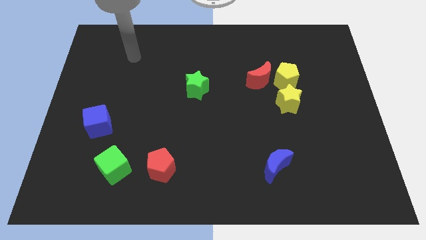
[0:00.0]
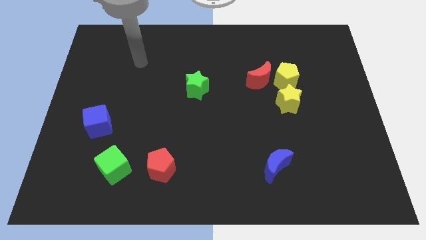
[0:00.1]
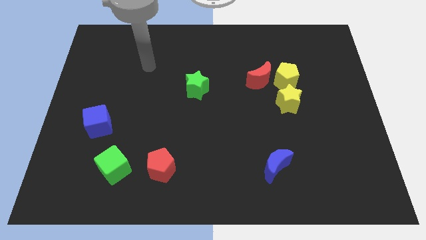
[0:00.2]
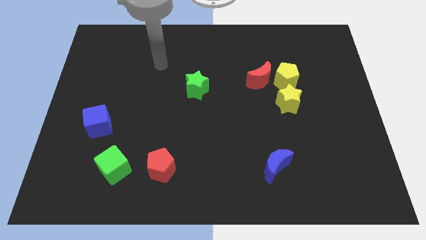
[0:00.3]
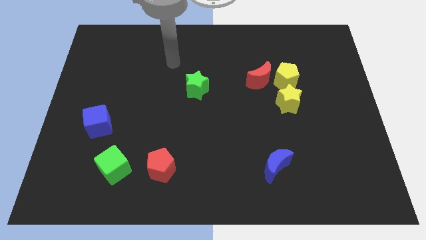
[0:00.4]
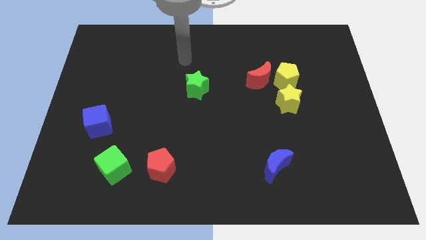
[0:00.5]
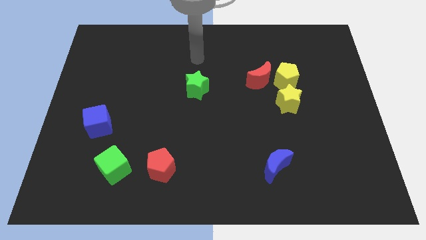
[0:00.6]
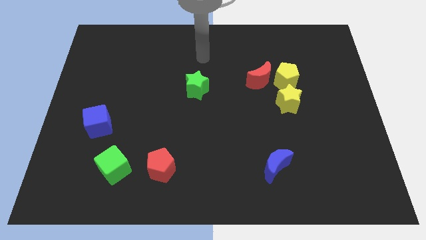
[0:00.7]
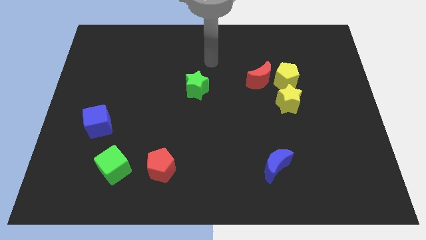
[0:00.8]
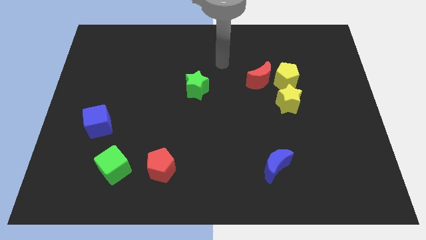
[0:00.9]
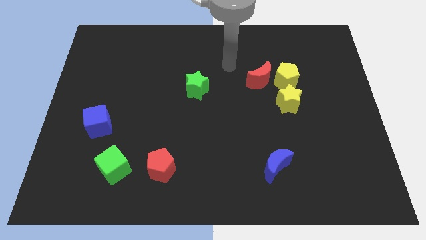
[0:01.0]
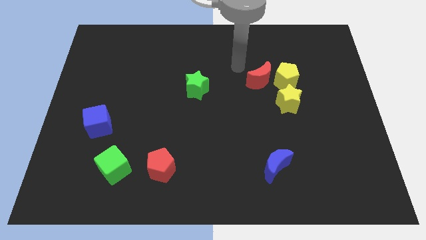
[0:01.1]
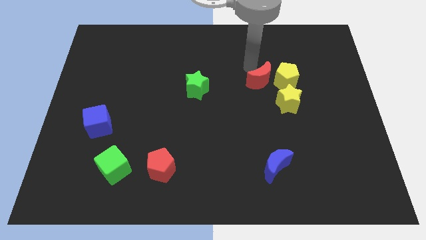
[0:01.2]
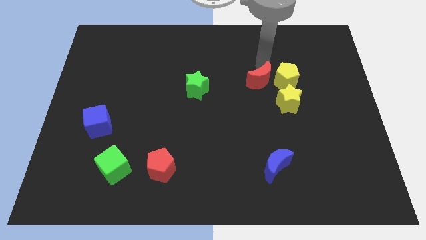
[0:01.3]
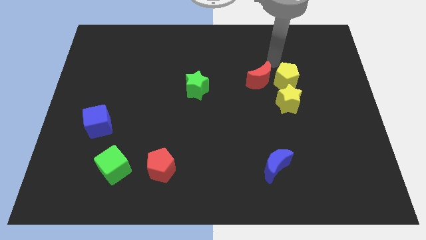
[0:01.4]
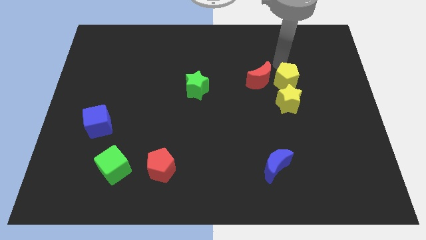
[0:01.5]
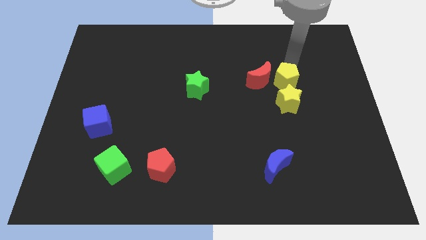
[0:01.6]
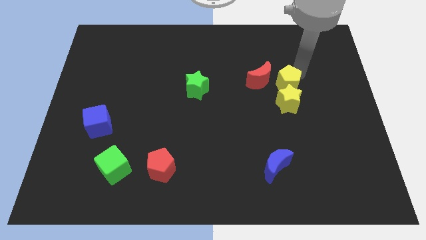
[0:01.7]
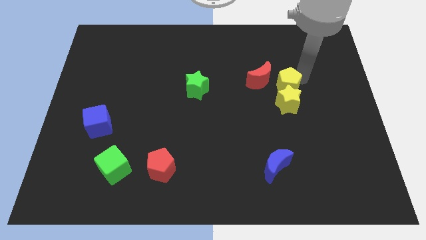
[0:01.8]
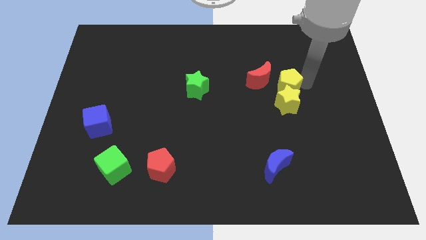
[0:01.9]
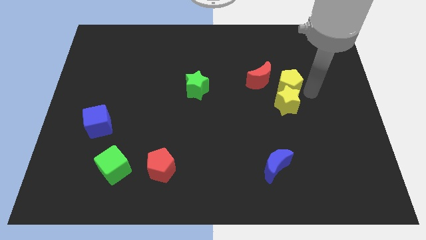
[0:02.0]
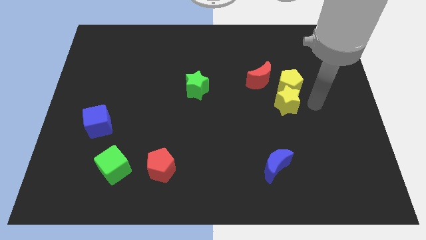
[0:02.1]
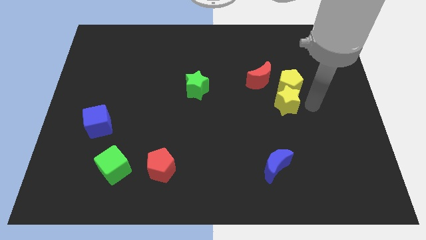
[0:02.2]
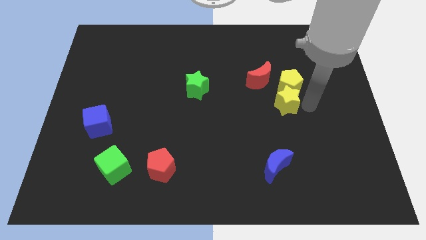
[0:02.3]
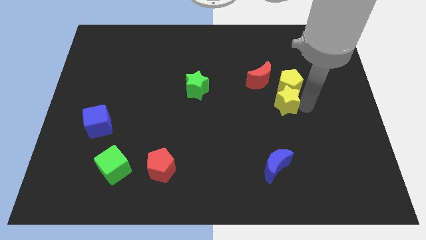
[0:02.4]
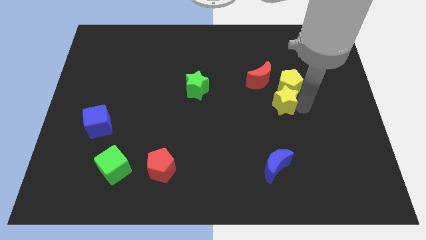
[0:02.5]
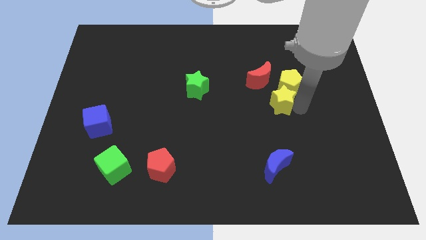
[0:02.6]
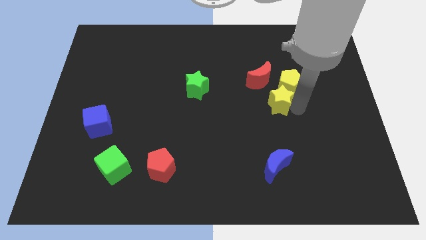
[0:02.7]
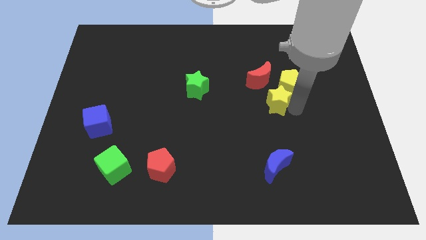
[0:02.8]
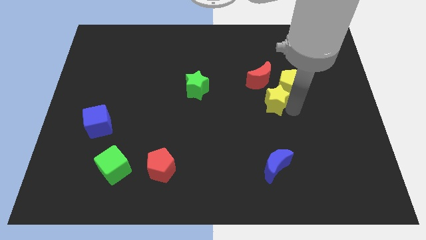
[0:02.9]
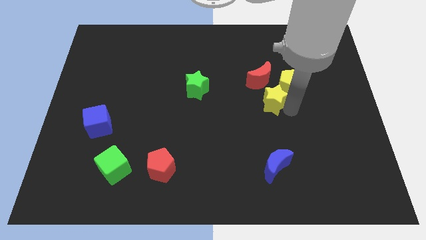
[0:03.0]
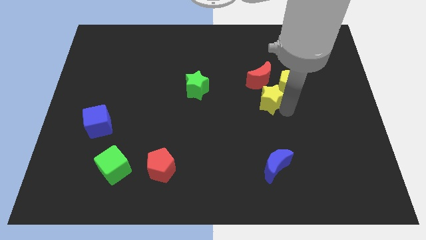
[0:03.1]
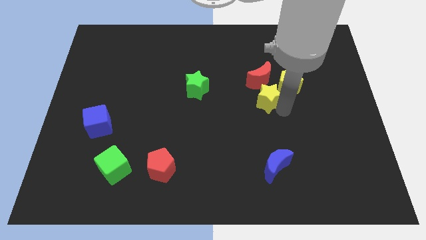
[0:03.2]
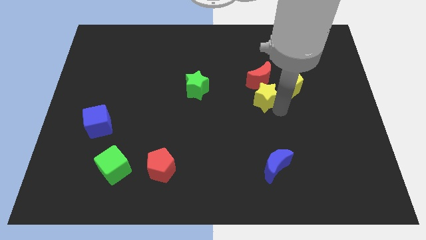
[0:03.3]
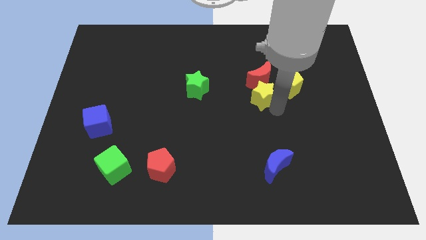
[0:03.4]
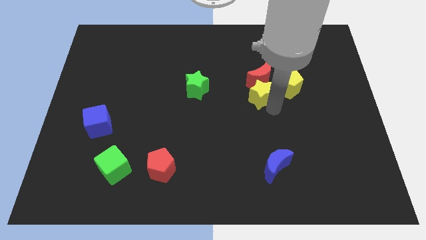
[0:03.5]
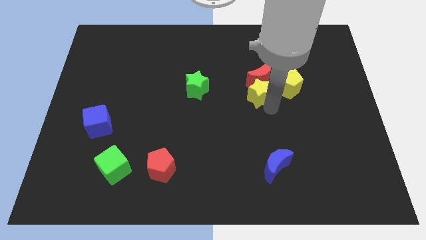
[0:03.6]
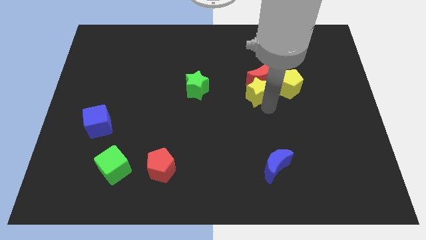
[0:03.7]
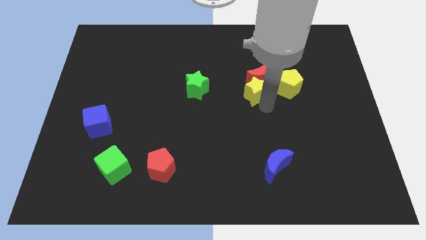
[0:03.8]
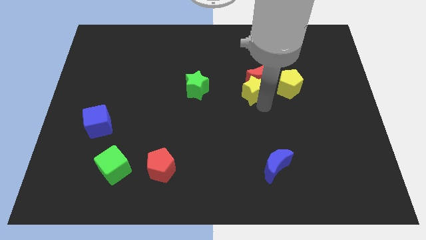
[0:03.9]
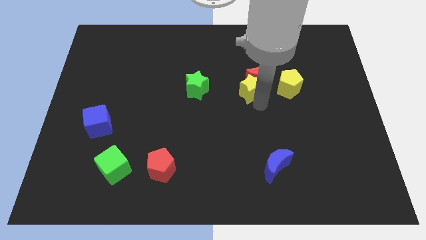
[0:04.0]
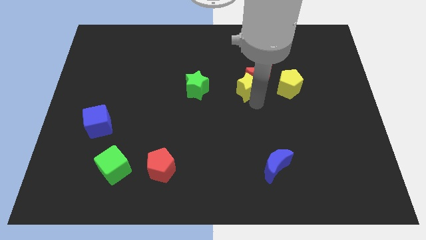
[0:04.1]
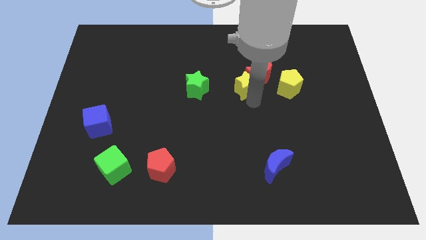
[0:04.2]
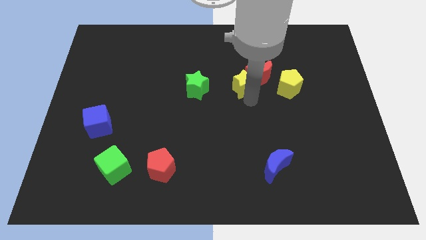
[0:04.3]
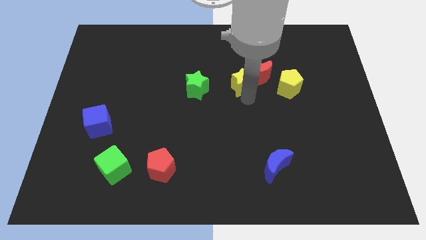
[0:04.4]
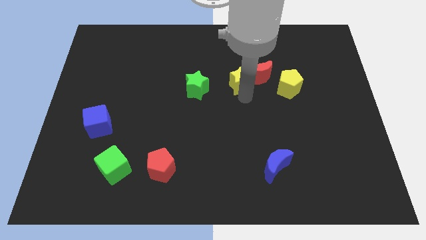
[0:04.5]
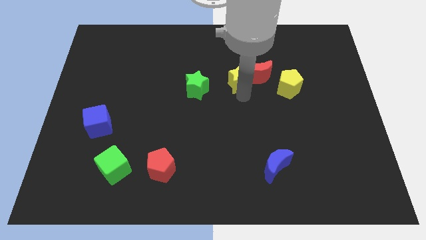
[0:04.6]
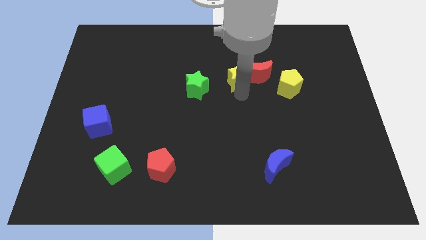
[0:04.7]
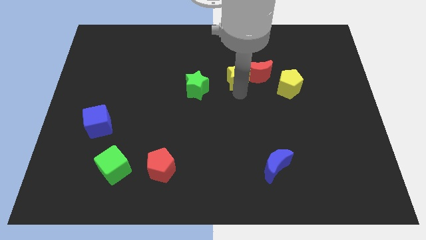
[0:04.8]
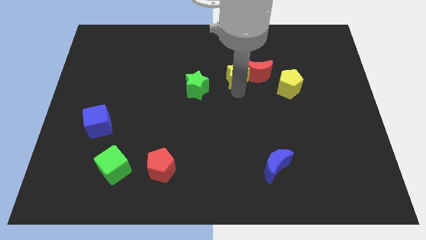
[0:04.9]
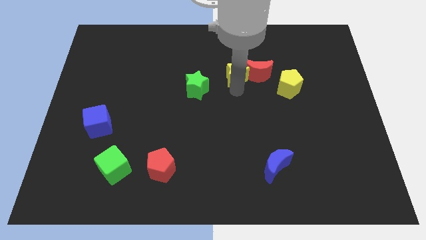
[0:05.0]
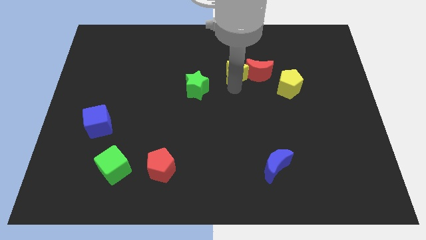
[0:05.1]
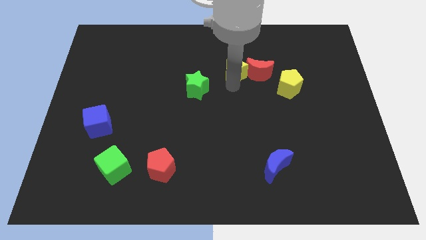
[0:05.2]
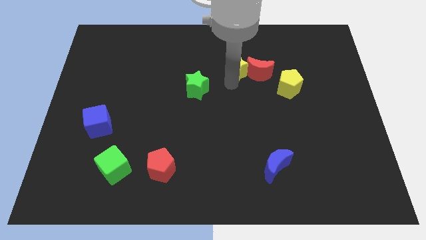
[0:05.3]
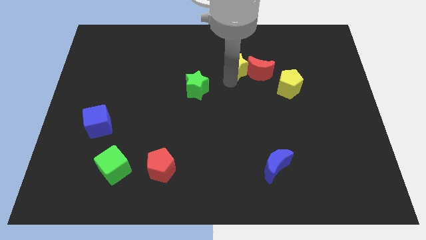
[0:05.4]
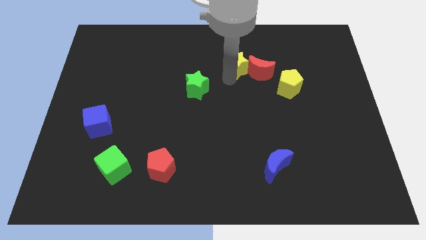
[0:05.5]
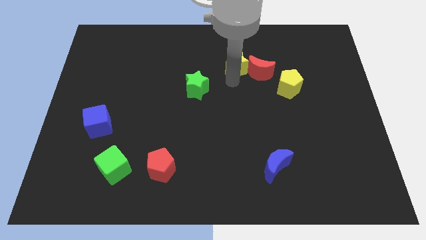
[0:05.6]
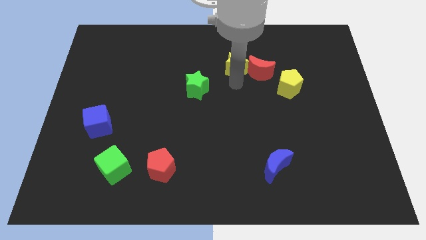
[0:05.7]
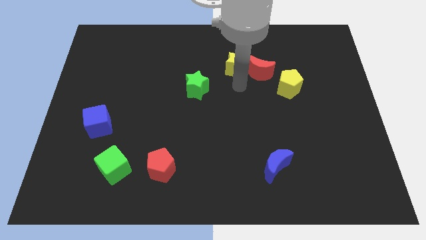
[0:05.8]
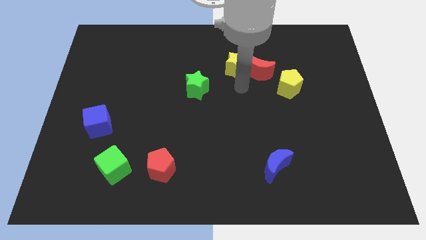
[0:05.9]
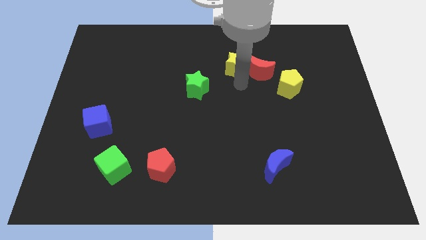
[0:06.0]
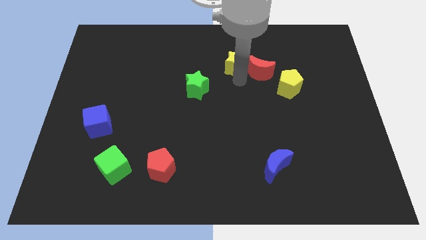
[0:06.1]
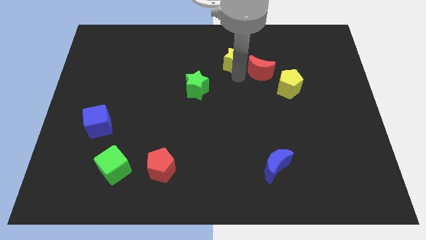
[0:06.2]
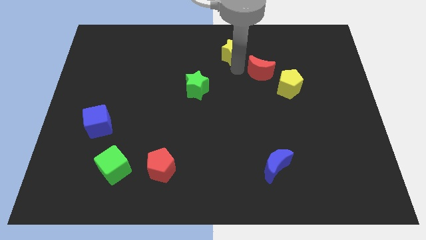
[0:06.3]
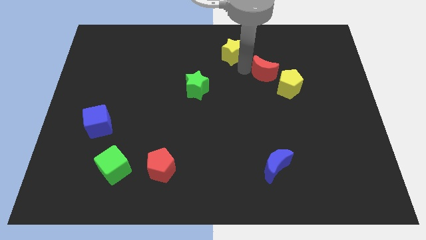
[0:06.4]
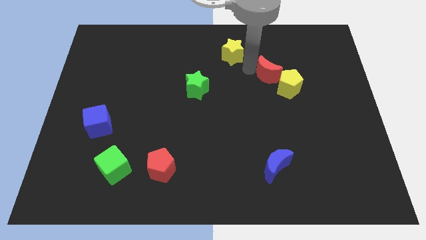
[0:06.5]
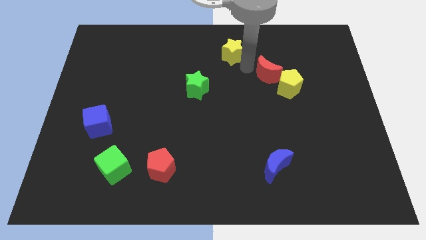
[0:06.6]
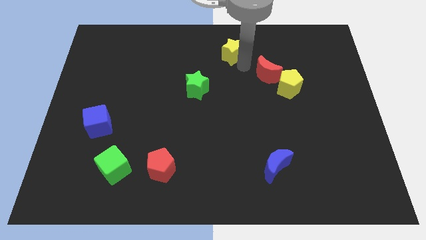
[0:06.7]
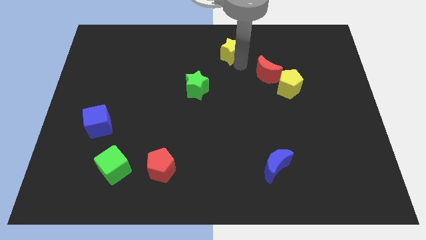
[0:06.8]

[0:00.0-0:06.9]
put the yellow star to the top

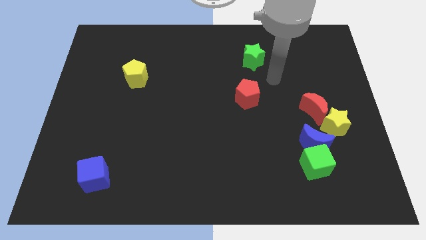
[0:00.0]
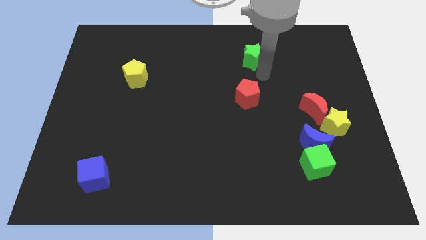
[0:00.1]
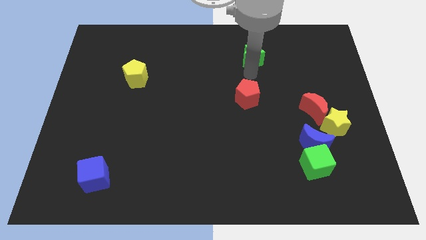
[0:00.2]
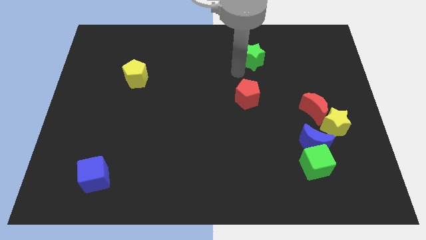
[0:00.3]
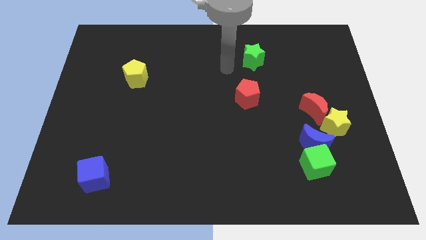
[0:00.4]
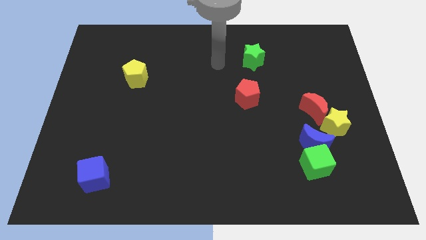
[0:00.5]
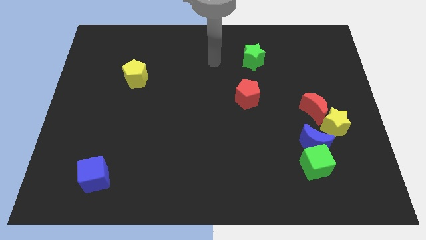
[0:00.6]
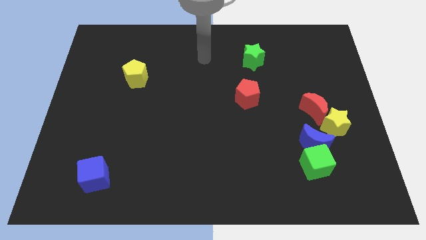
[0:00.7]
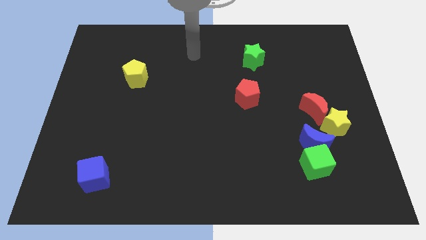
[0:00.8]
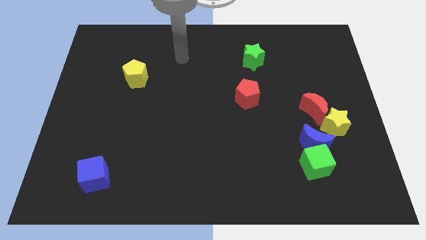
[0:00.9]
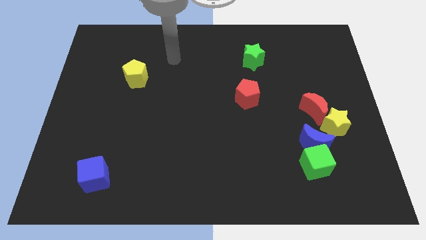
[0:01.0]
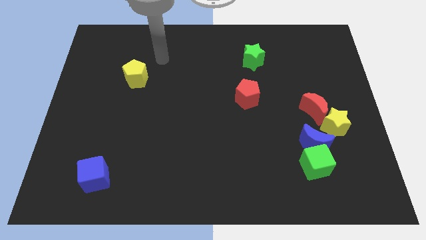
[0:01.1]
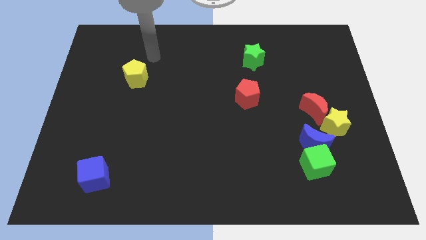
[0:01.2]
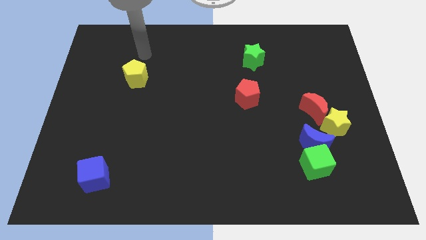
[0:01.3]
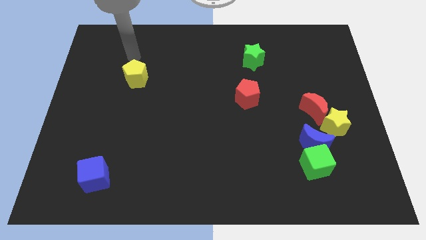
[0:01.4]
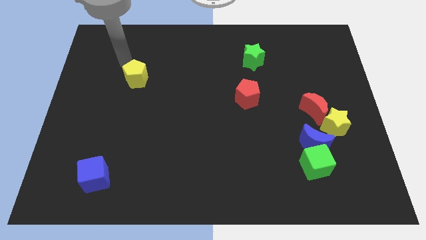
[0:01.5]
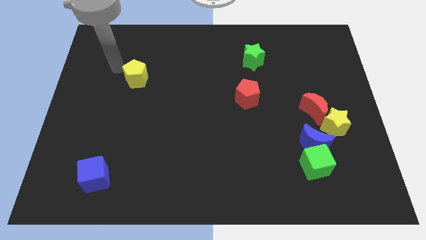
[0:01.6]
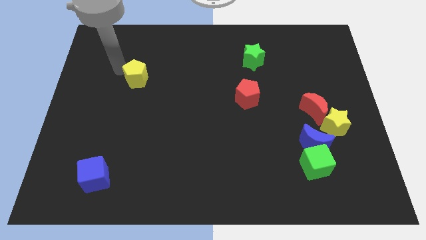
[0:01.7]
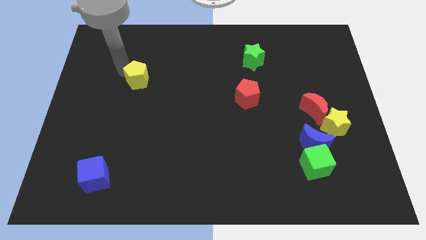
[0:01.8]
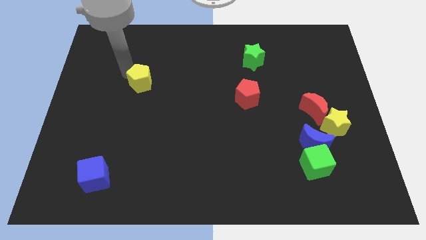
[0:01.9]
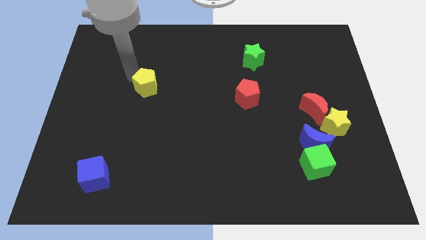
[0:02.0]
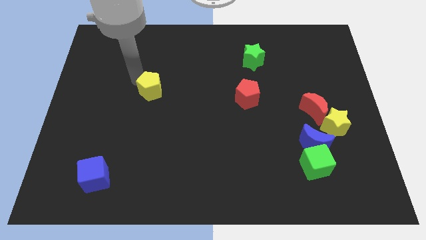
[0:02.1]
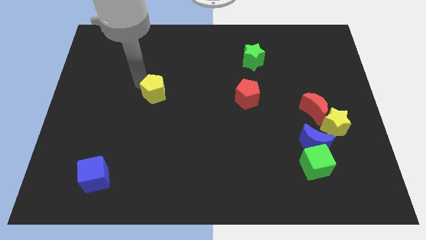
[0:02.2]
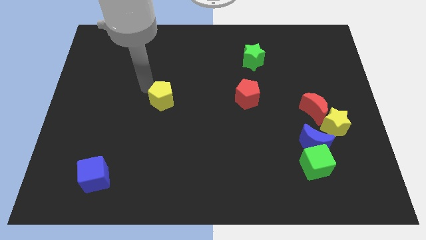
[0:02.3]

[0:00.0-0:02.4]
slide the yellow pentagon to the center of the board
